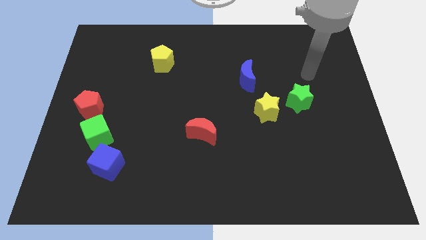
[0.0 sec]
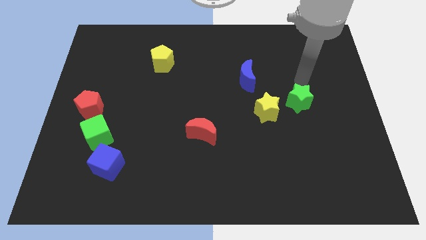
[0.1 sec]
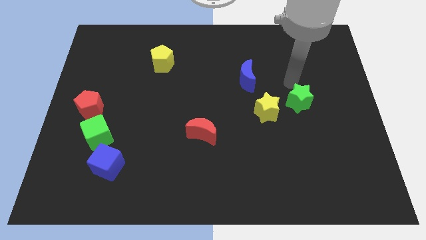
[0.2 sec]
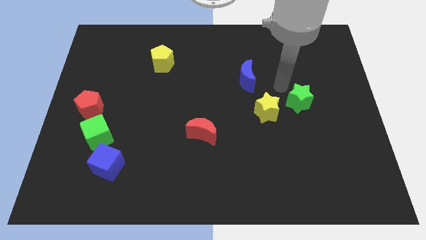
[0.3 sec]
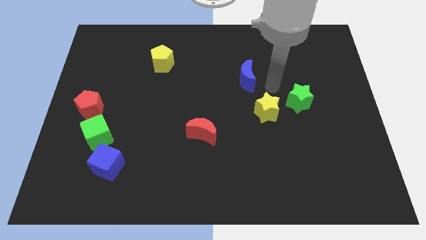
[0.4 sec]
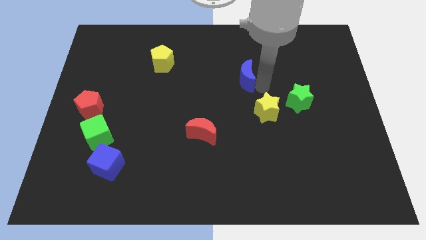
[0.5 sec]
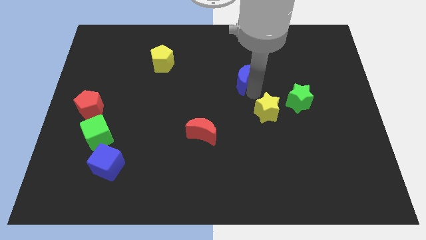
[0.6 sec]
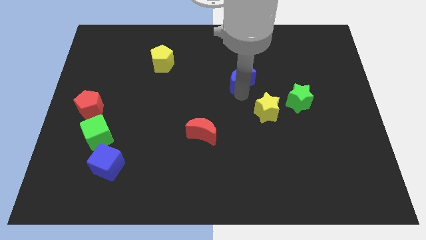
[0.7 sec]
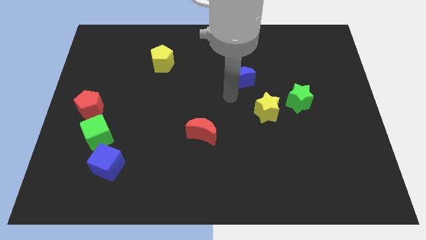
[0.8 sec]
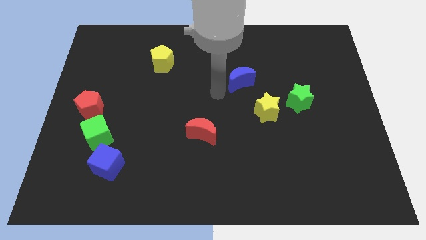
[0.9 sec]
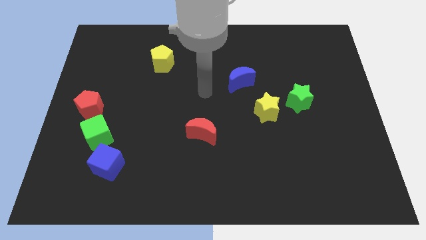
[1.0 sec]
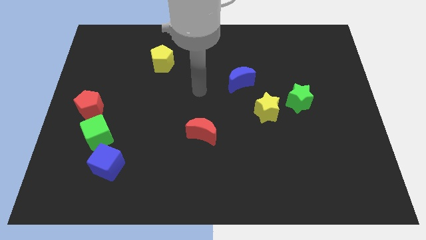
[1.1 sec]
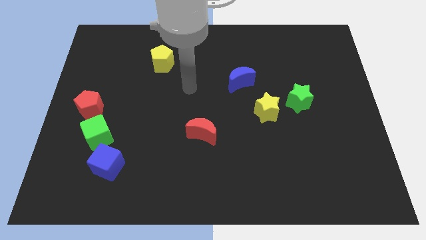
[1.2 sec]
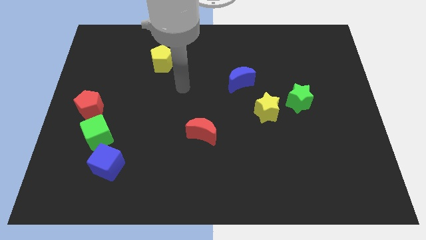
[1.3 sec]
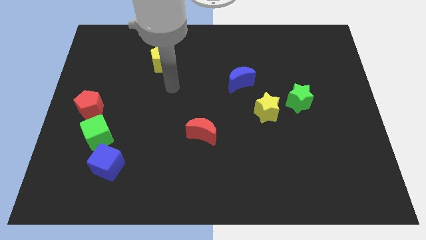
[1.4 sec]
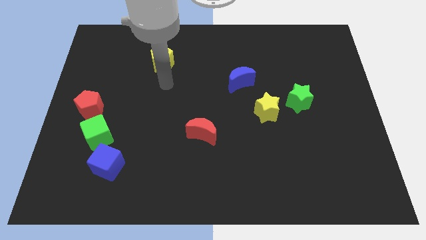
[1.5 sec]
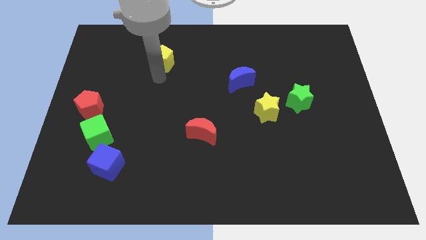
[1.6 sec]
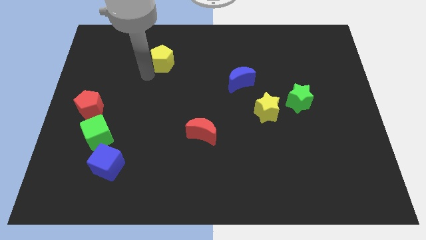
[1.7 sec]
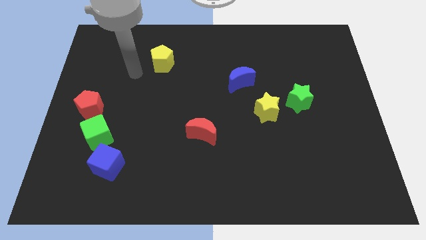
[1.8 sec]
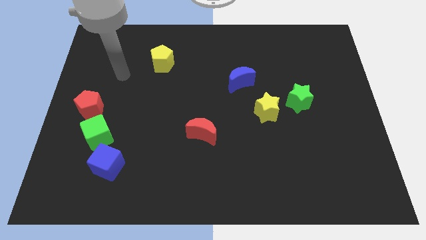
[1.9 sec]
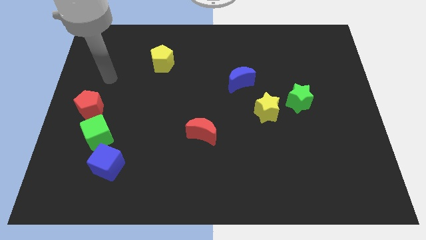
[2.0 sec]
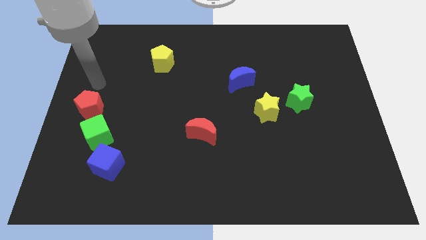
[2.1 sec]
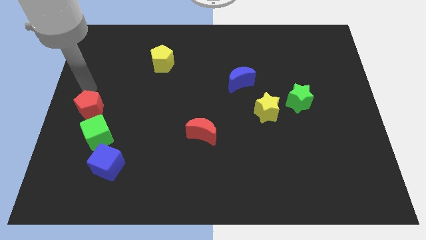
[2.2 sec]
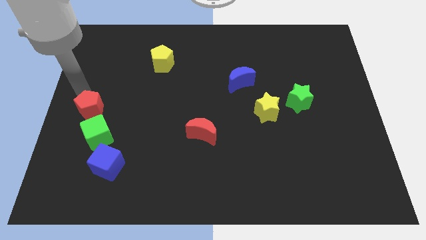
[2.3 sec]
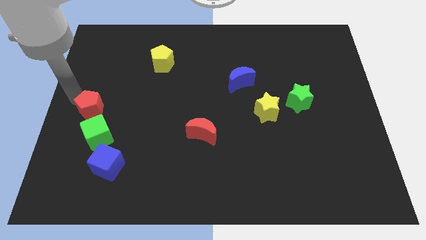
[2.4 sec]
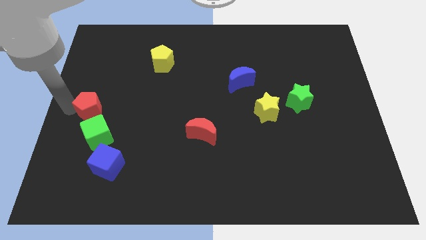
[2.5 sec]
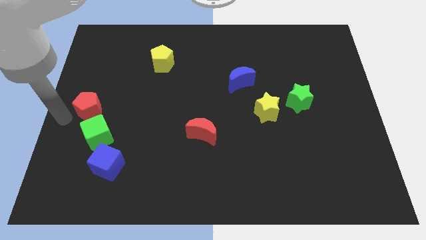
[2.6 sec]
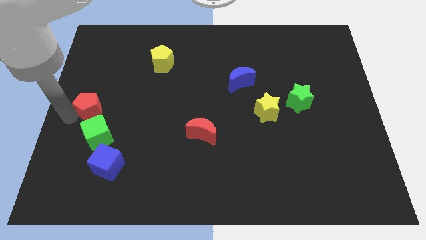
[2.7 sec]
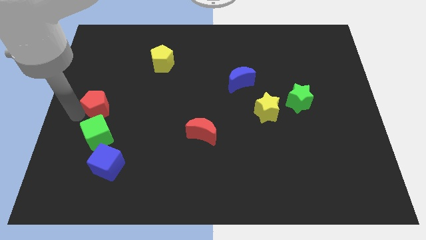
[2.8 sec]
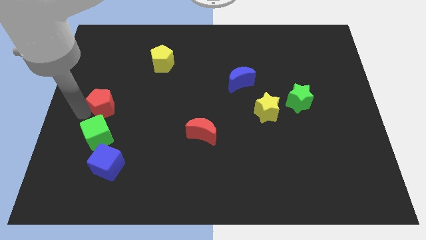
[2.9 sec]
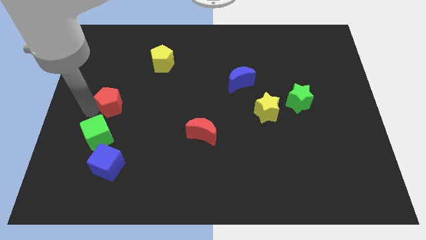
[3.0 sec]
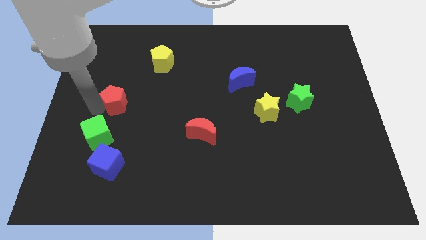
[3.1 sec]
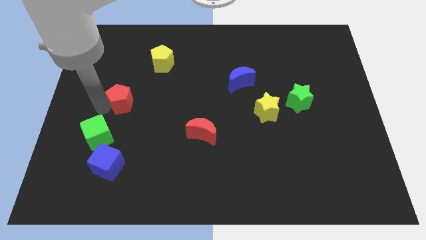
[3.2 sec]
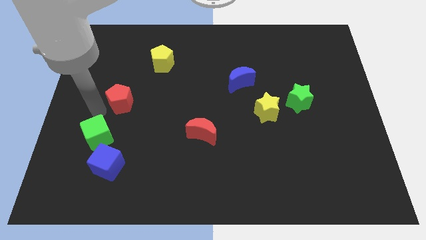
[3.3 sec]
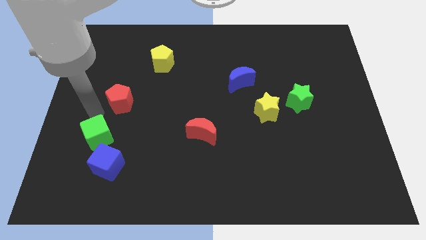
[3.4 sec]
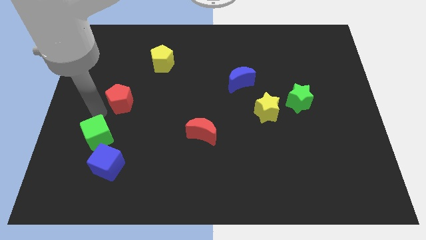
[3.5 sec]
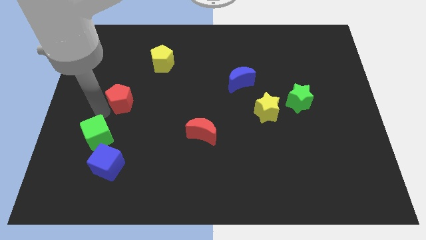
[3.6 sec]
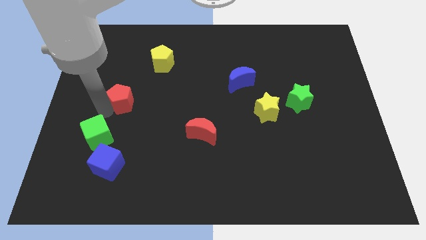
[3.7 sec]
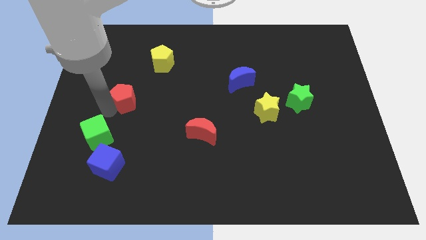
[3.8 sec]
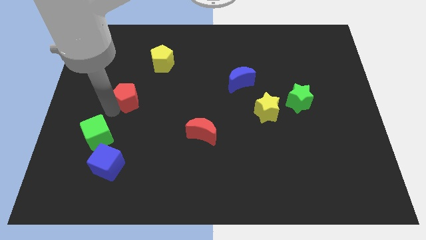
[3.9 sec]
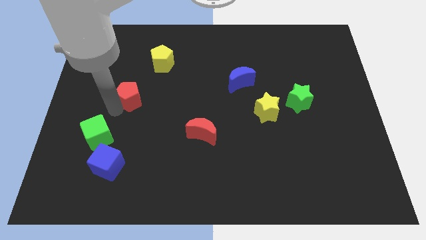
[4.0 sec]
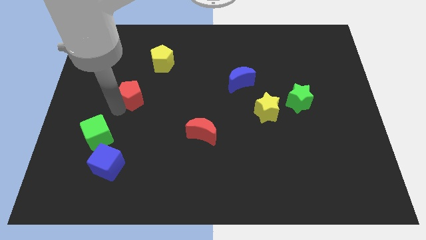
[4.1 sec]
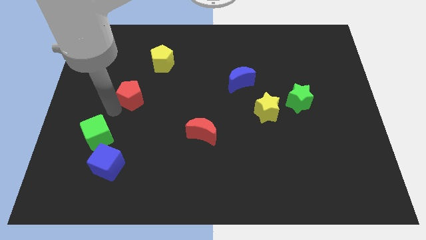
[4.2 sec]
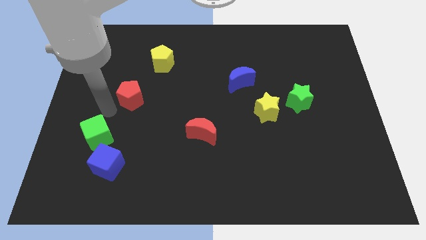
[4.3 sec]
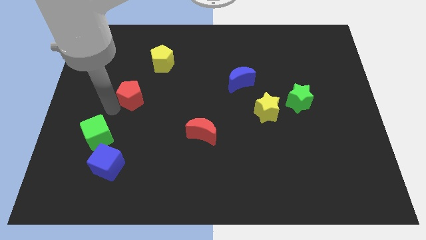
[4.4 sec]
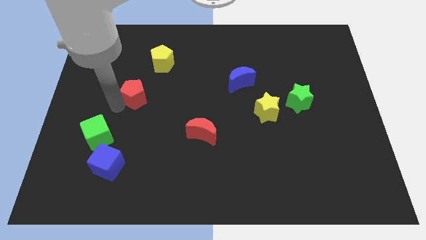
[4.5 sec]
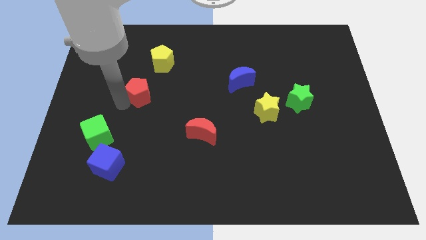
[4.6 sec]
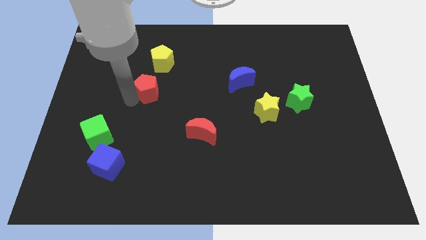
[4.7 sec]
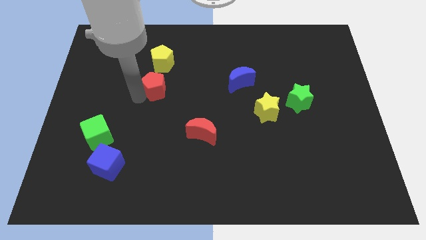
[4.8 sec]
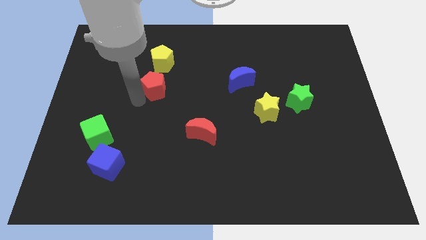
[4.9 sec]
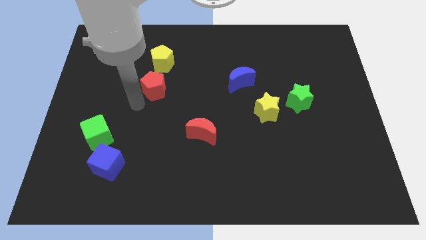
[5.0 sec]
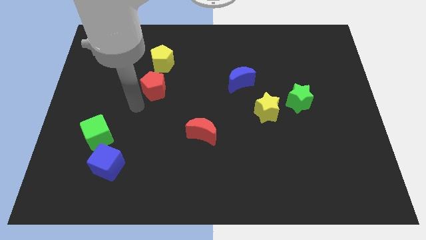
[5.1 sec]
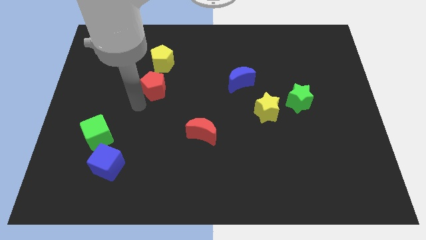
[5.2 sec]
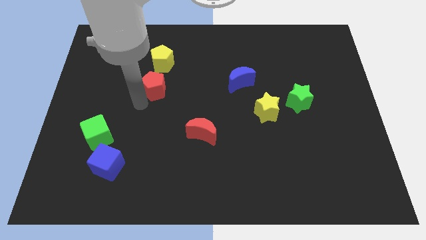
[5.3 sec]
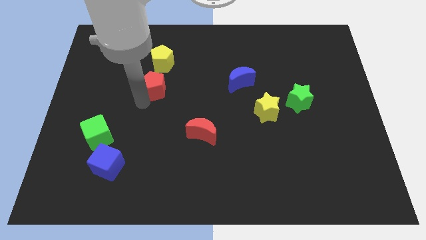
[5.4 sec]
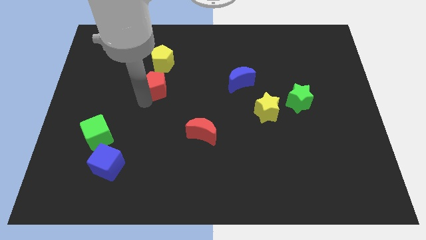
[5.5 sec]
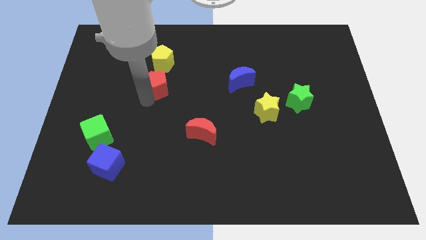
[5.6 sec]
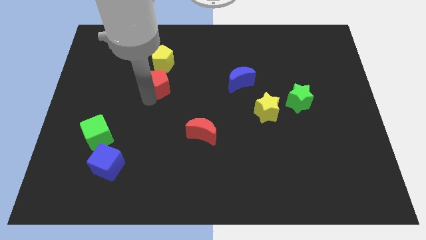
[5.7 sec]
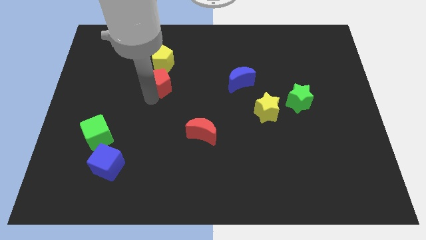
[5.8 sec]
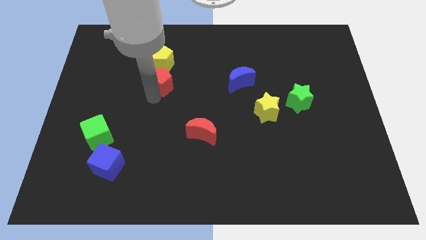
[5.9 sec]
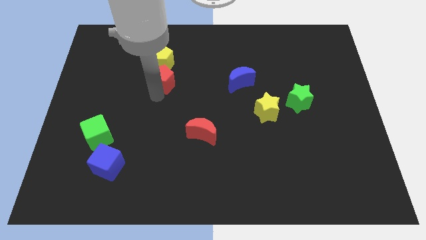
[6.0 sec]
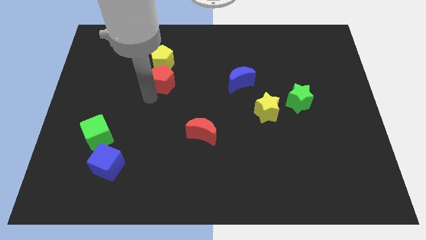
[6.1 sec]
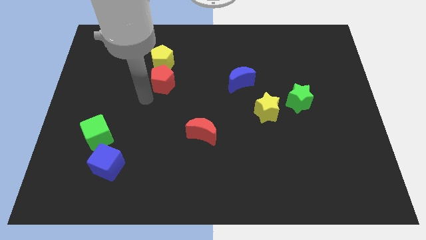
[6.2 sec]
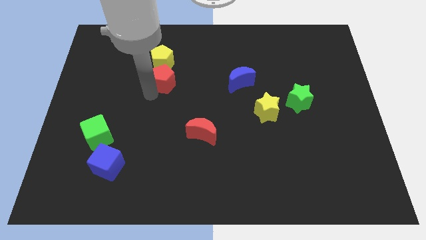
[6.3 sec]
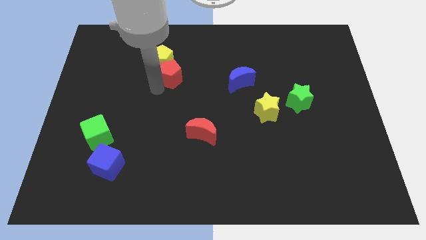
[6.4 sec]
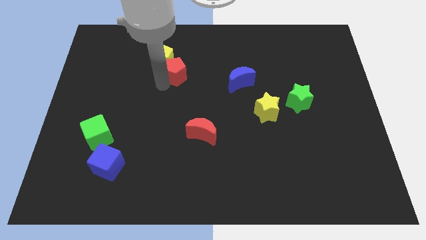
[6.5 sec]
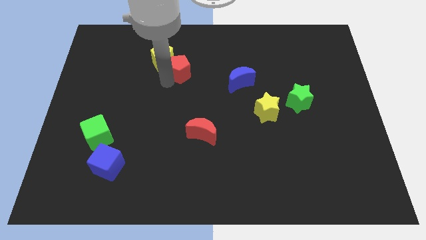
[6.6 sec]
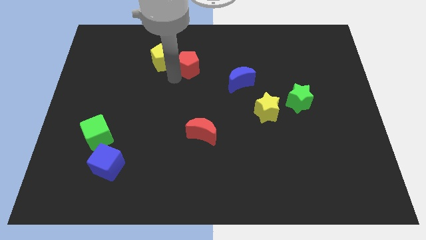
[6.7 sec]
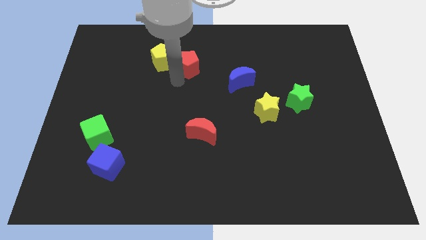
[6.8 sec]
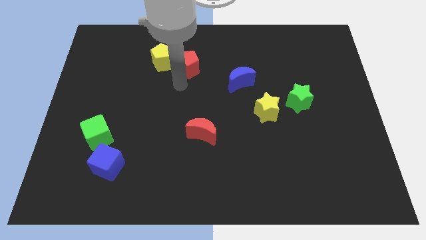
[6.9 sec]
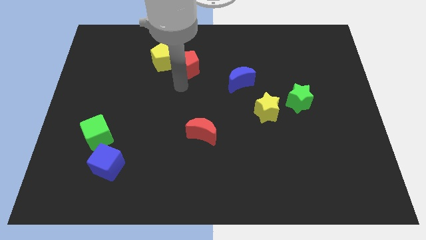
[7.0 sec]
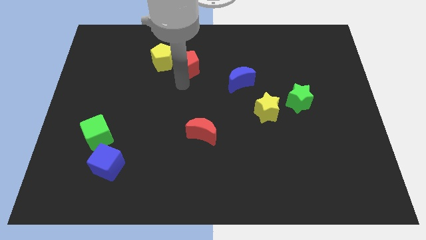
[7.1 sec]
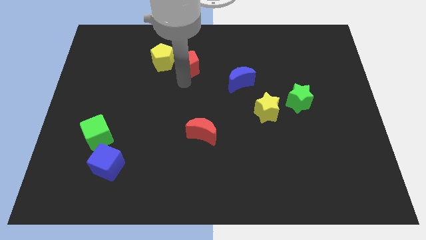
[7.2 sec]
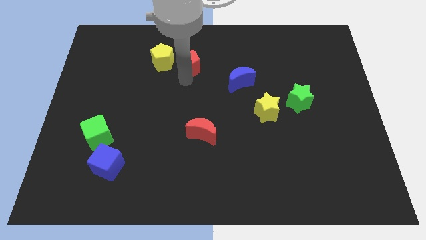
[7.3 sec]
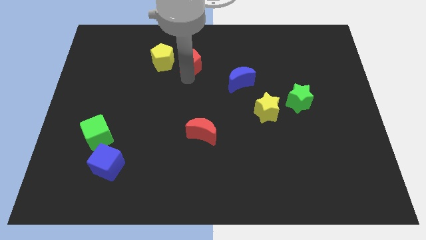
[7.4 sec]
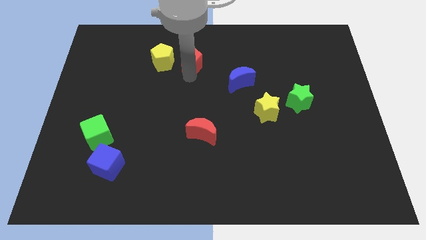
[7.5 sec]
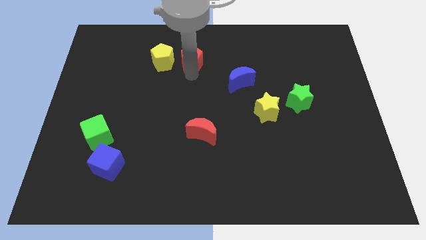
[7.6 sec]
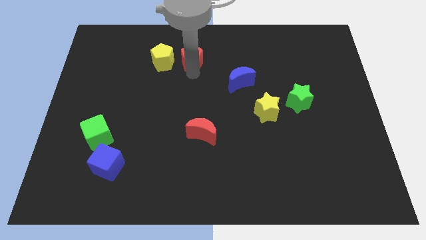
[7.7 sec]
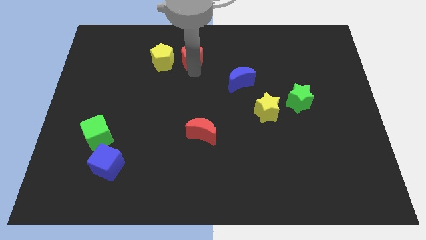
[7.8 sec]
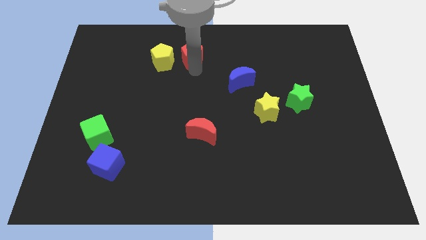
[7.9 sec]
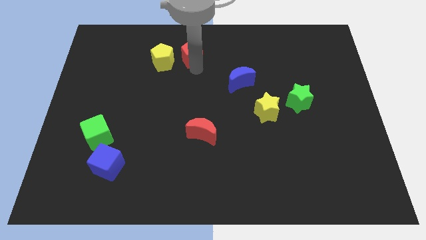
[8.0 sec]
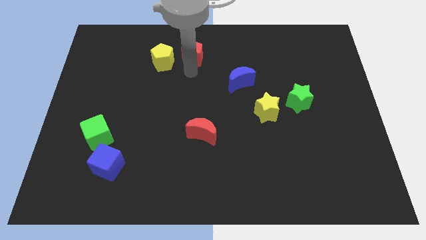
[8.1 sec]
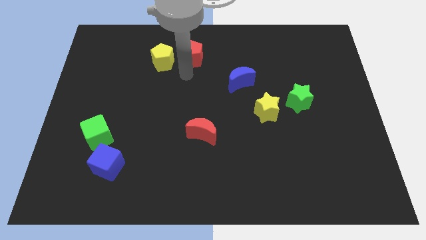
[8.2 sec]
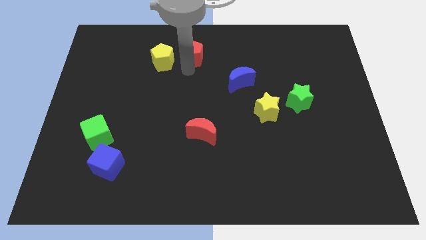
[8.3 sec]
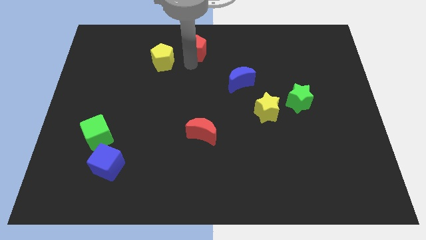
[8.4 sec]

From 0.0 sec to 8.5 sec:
slide the red pentagon to the top
